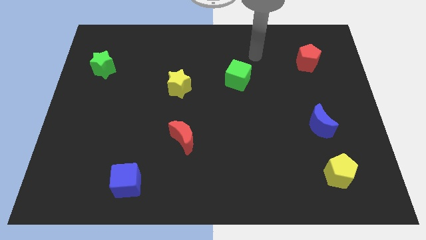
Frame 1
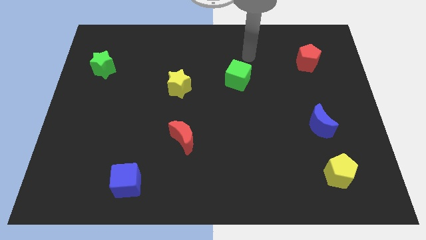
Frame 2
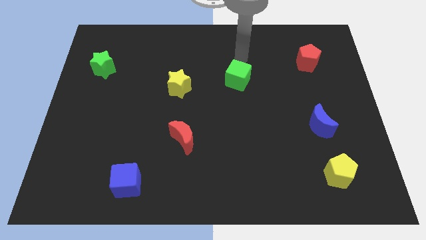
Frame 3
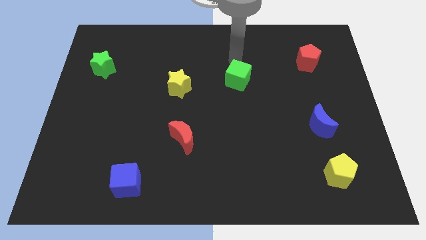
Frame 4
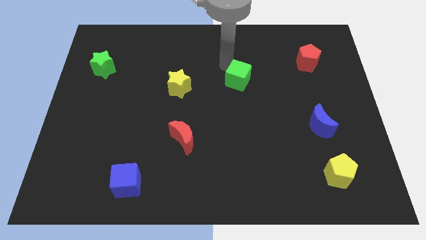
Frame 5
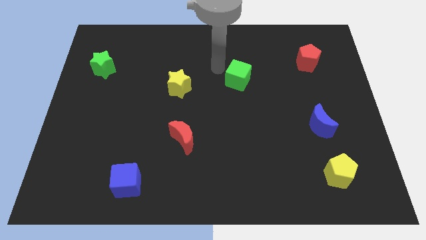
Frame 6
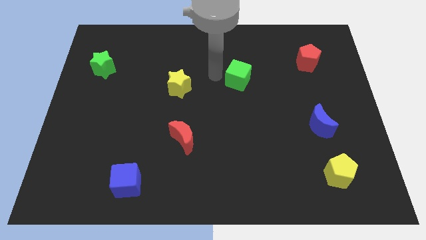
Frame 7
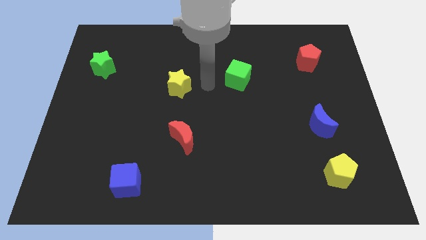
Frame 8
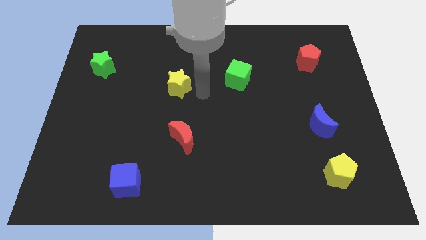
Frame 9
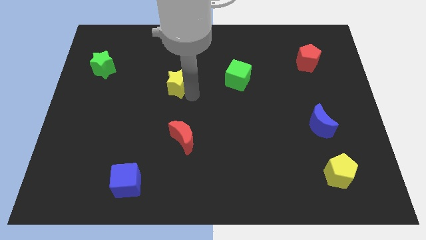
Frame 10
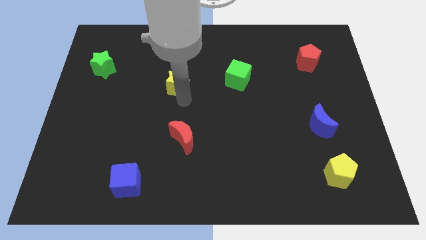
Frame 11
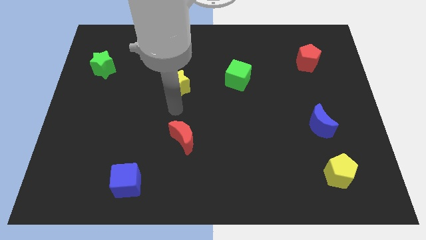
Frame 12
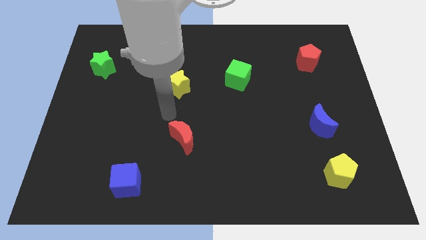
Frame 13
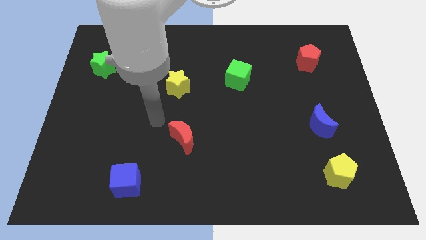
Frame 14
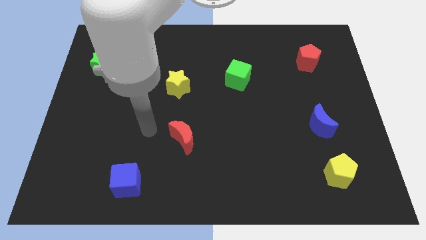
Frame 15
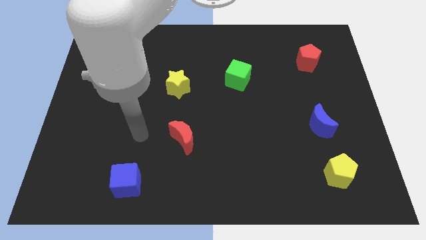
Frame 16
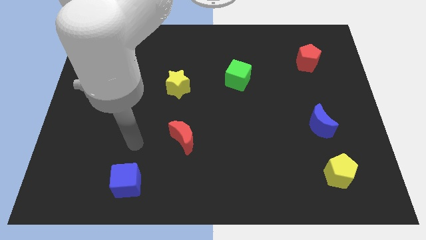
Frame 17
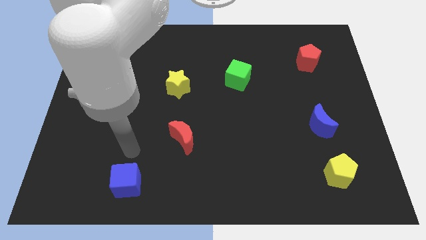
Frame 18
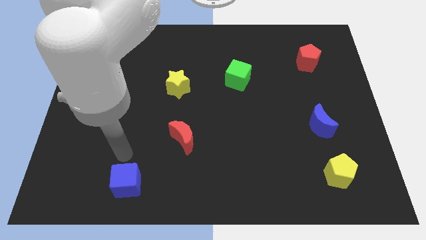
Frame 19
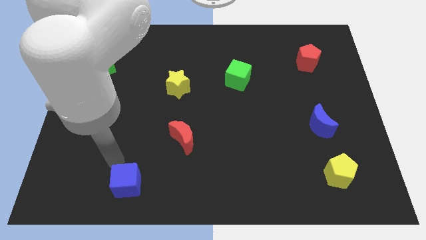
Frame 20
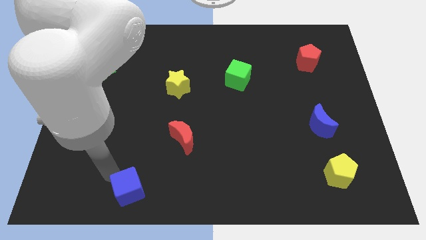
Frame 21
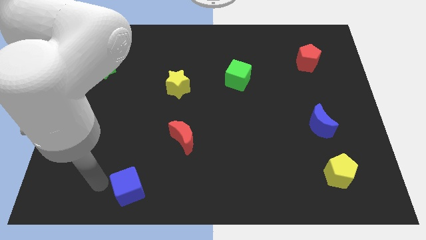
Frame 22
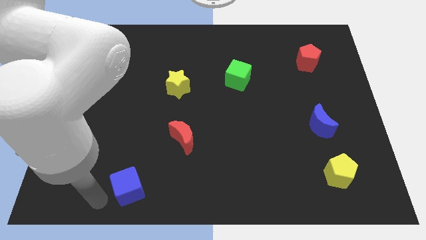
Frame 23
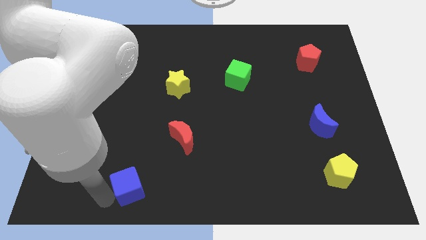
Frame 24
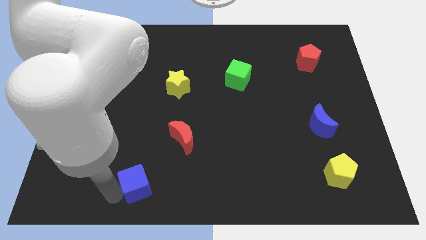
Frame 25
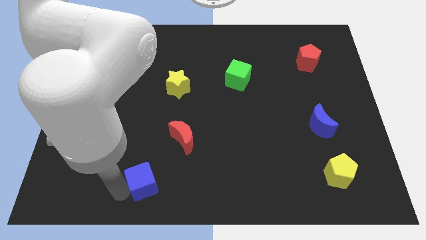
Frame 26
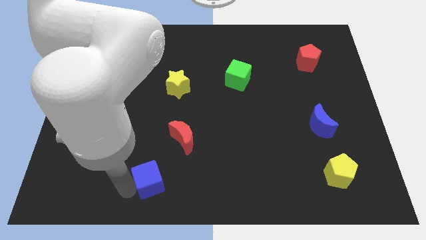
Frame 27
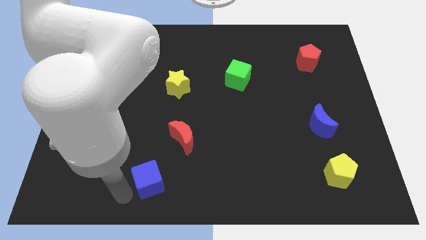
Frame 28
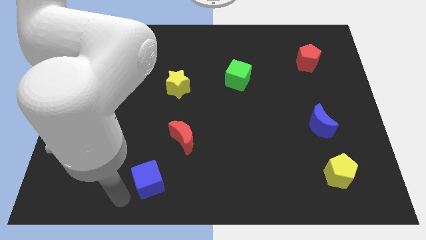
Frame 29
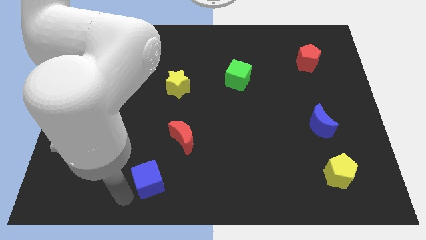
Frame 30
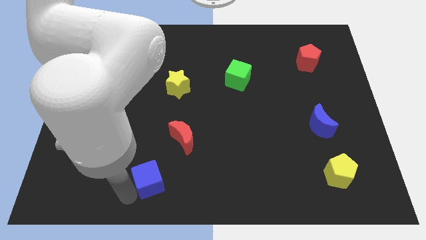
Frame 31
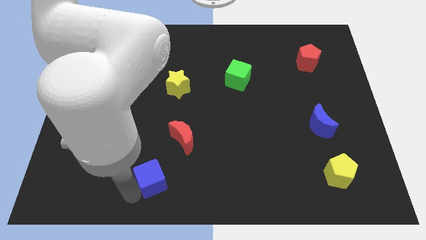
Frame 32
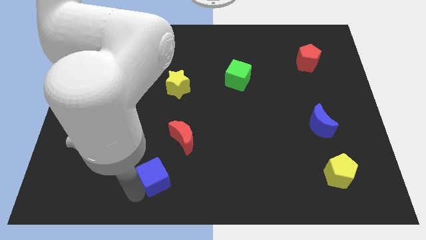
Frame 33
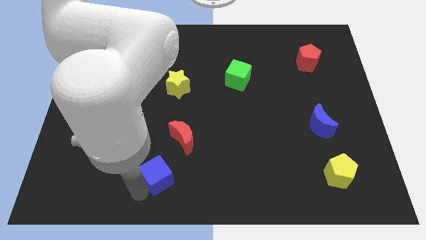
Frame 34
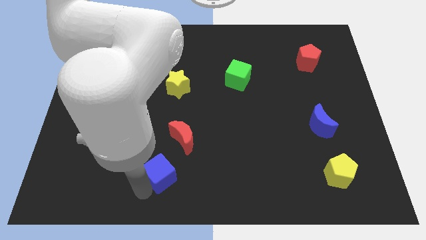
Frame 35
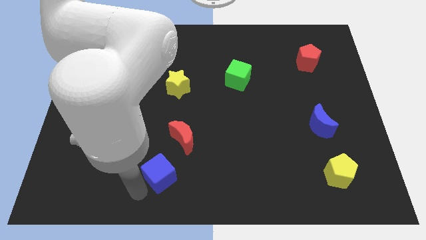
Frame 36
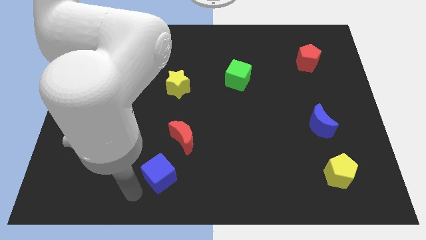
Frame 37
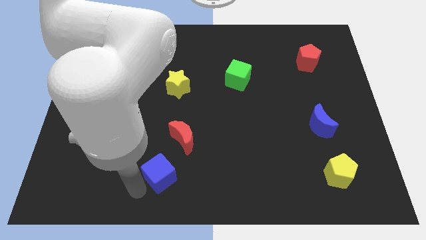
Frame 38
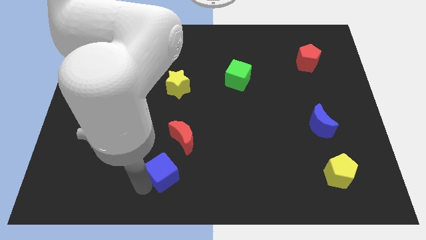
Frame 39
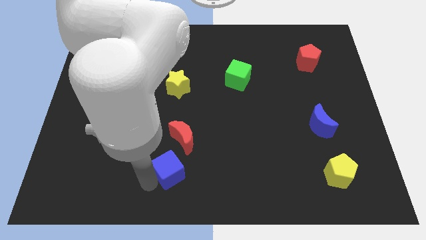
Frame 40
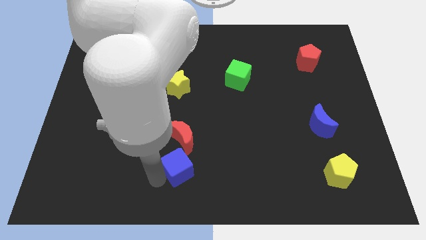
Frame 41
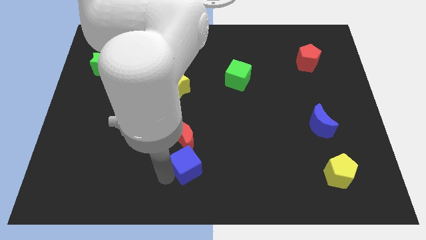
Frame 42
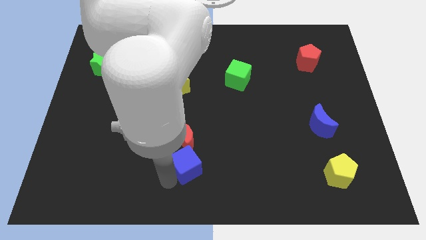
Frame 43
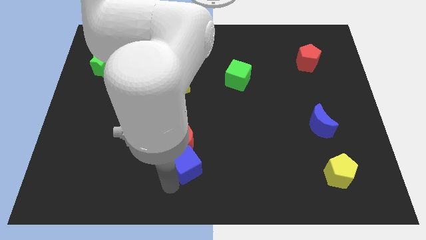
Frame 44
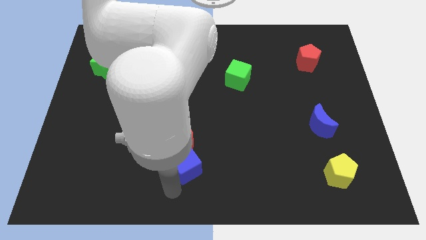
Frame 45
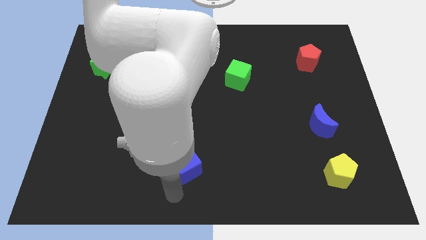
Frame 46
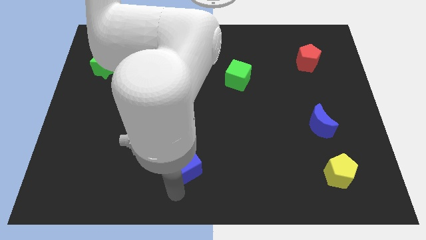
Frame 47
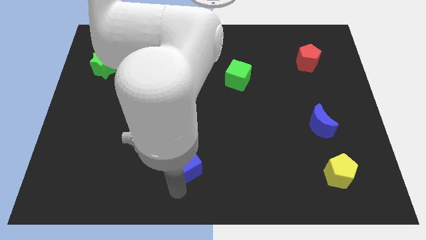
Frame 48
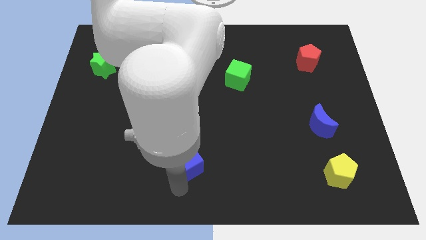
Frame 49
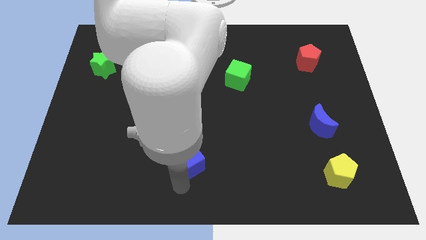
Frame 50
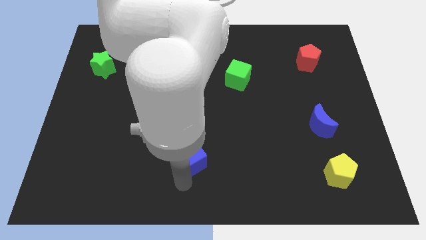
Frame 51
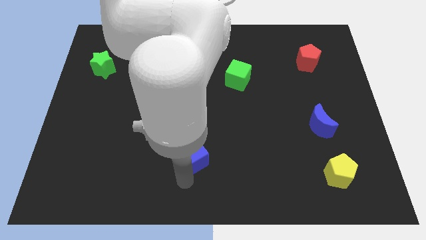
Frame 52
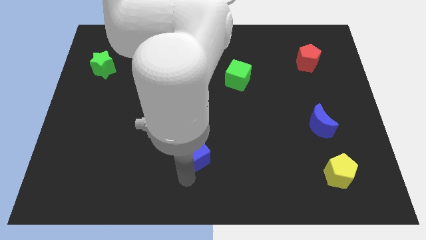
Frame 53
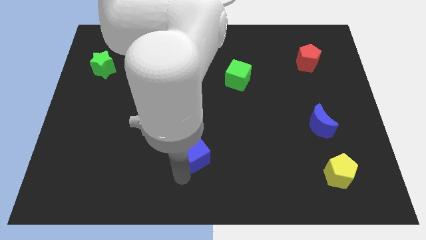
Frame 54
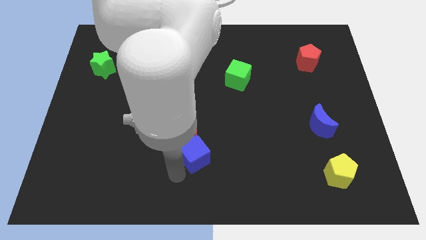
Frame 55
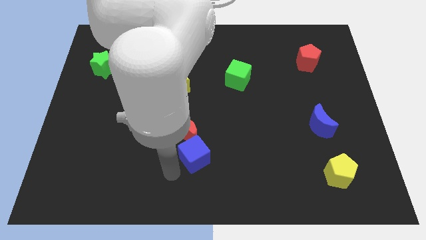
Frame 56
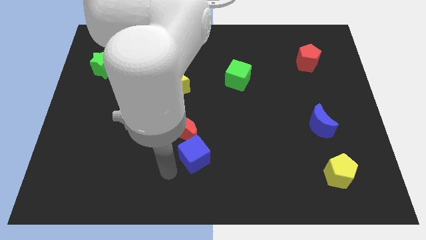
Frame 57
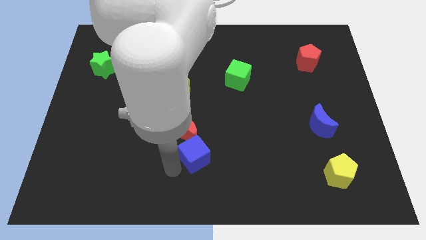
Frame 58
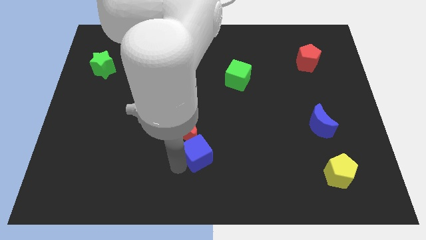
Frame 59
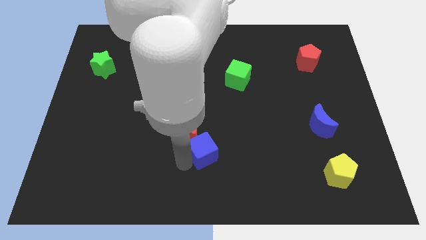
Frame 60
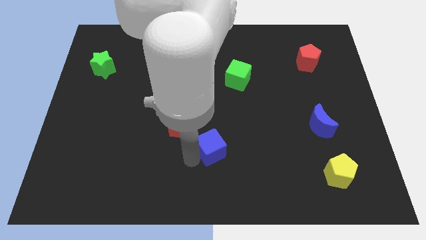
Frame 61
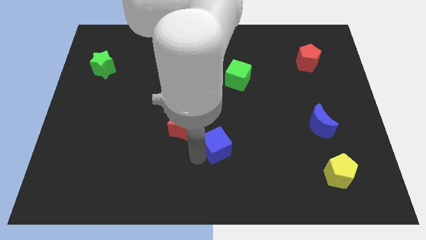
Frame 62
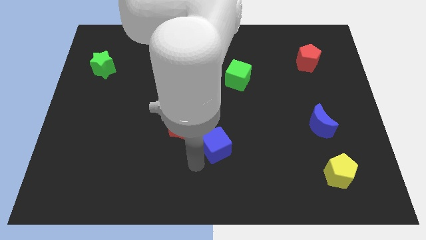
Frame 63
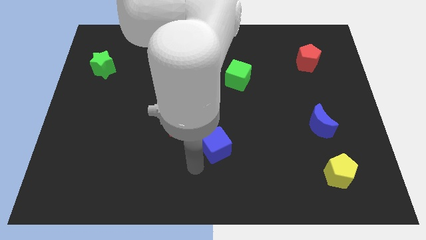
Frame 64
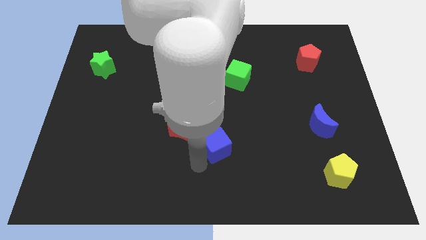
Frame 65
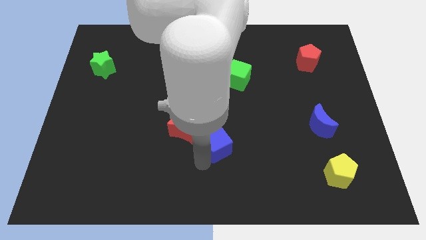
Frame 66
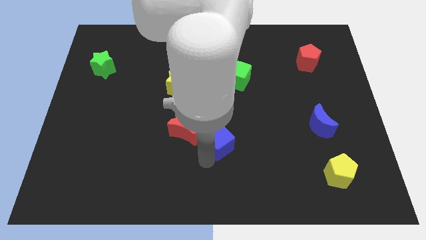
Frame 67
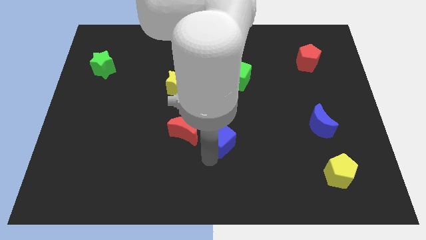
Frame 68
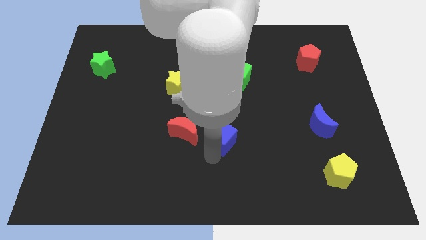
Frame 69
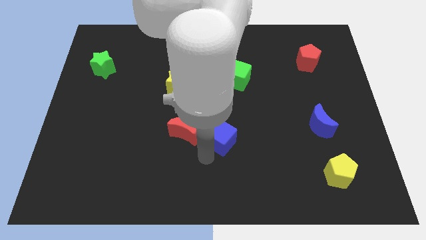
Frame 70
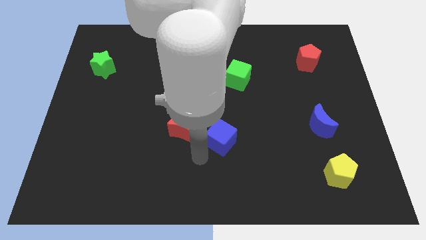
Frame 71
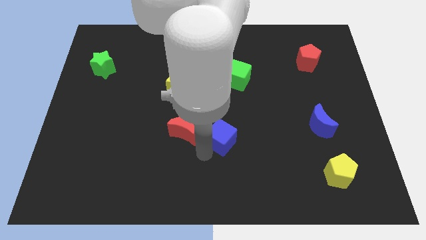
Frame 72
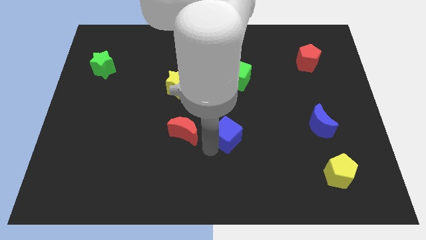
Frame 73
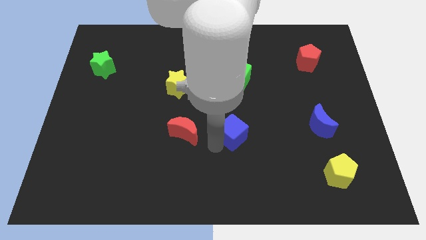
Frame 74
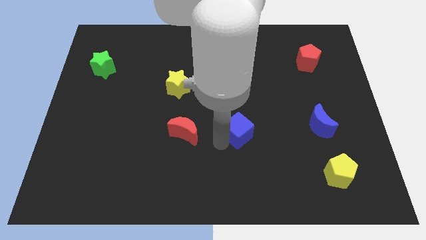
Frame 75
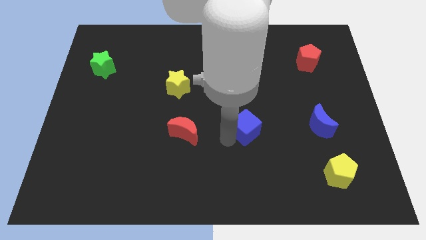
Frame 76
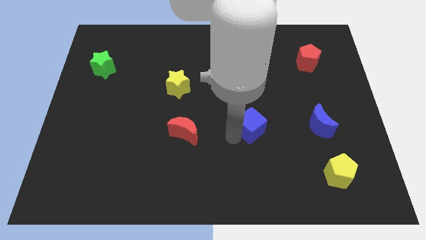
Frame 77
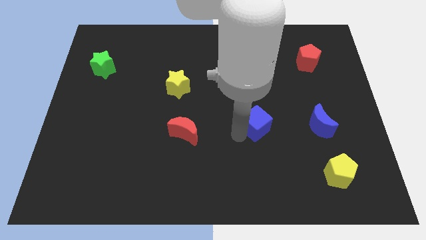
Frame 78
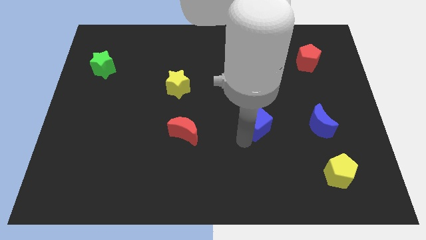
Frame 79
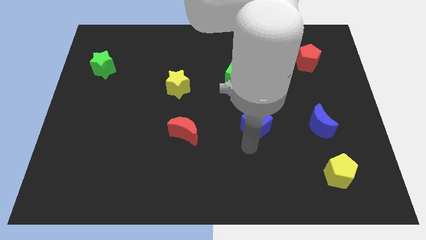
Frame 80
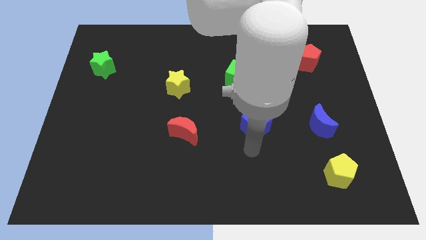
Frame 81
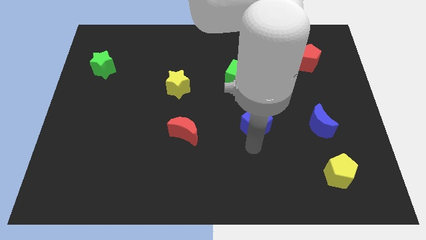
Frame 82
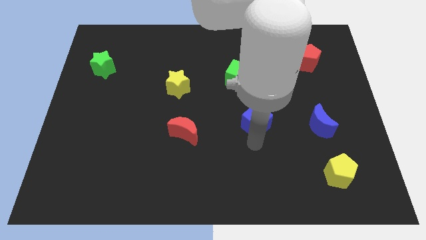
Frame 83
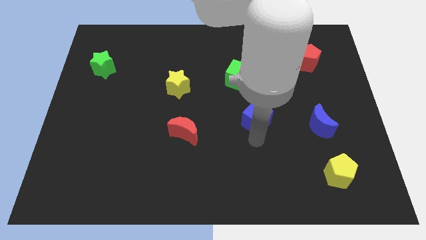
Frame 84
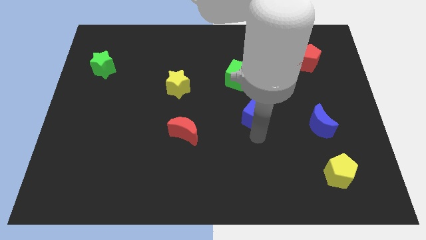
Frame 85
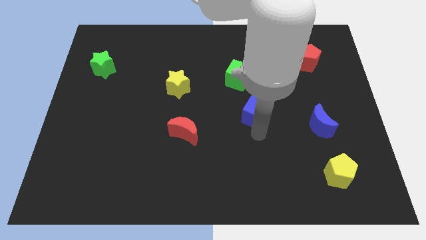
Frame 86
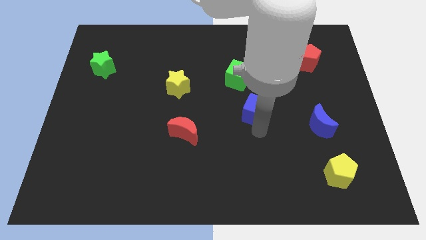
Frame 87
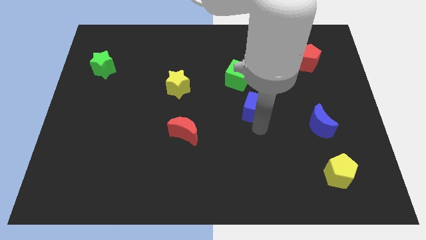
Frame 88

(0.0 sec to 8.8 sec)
slide the blue cube to the bottom right side of the green cube
